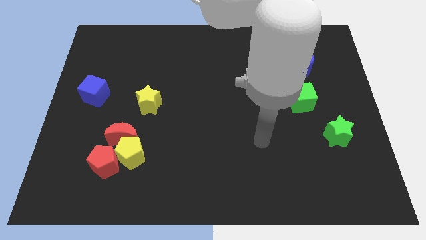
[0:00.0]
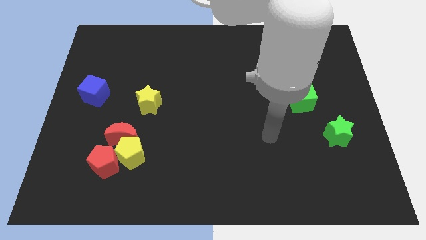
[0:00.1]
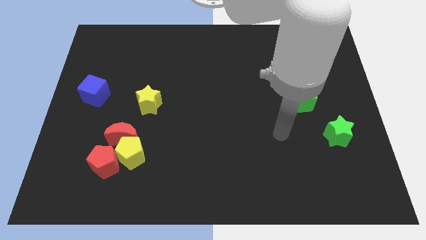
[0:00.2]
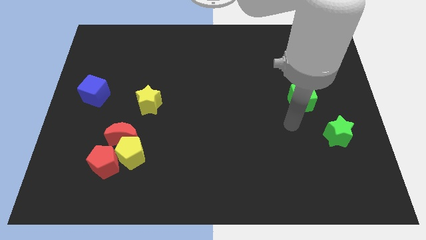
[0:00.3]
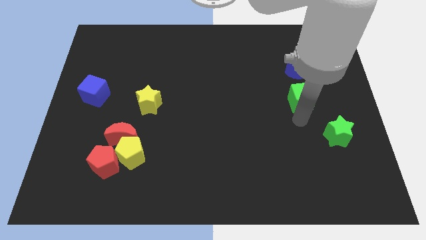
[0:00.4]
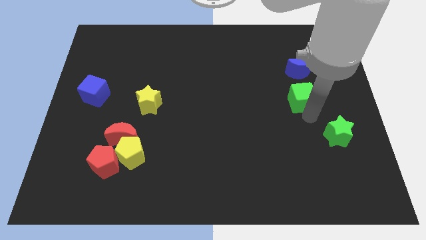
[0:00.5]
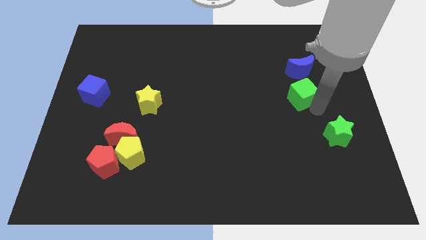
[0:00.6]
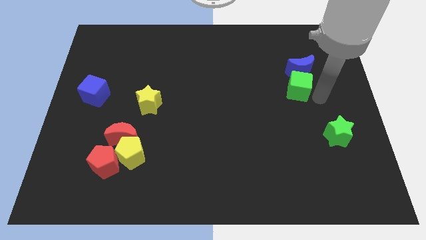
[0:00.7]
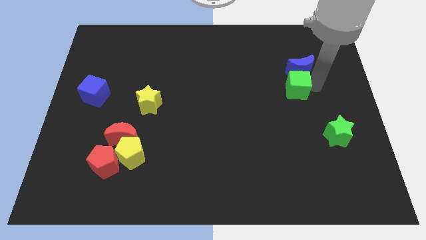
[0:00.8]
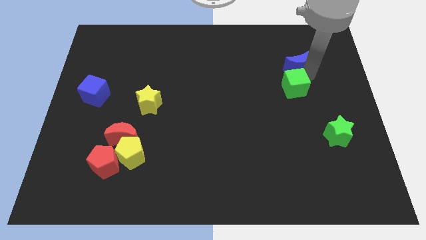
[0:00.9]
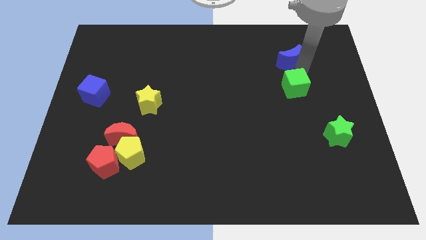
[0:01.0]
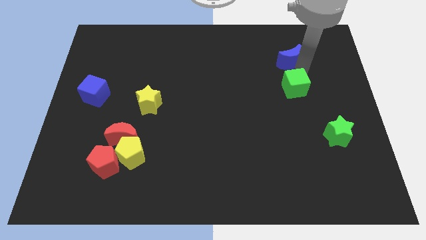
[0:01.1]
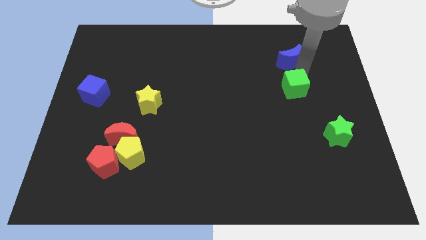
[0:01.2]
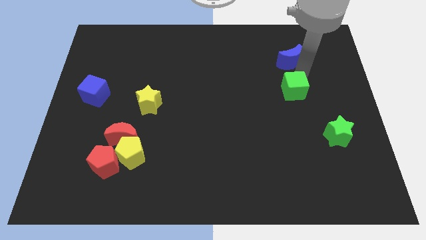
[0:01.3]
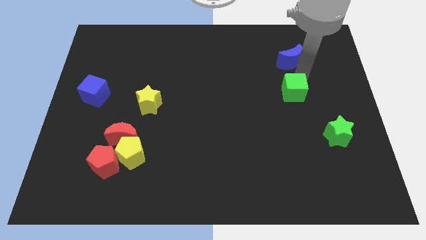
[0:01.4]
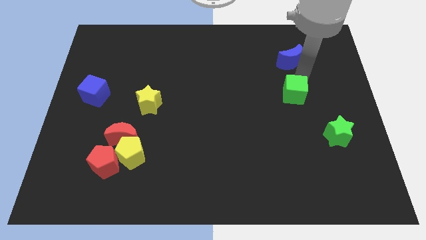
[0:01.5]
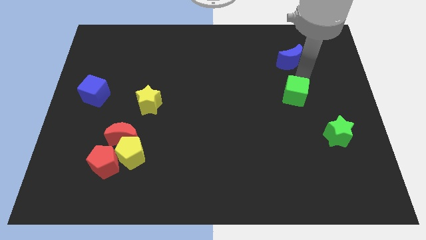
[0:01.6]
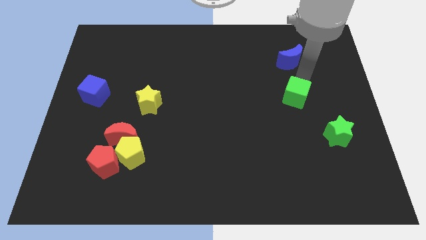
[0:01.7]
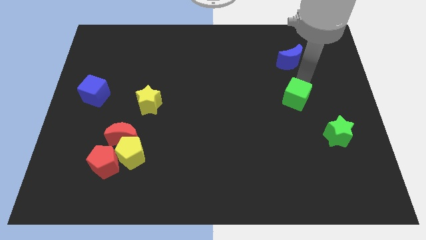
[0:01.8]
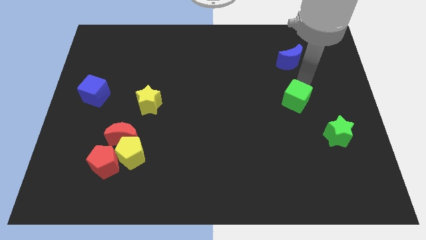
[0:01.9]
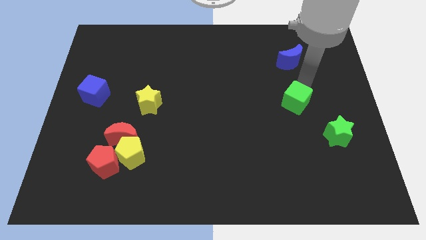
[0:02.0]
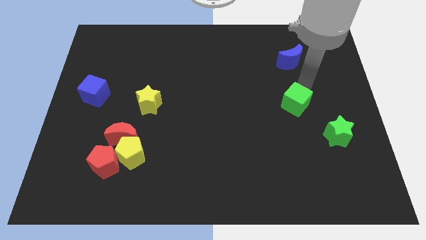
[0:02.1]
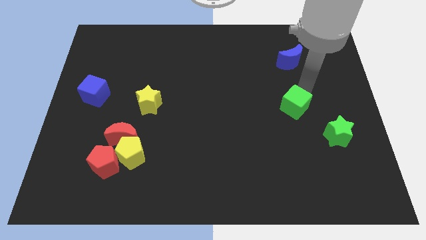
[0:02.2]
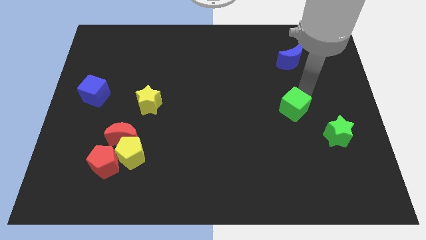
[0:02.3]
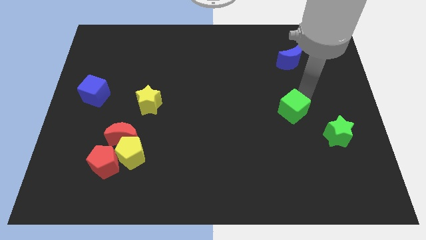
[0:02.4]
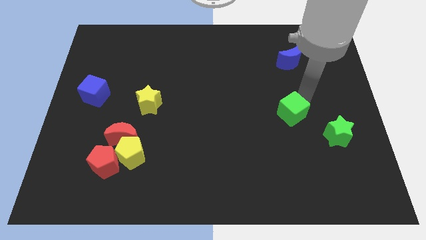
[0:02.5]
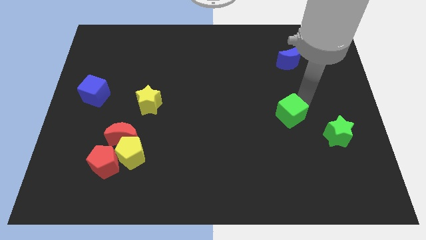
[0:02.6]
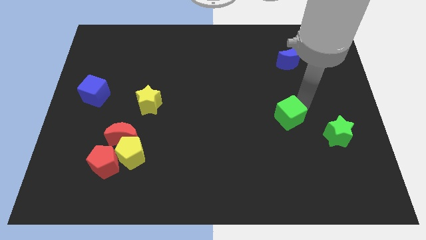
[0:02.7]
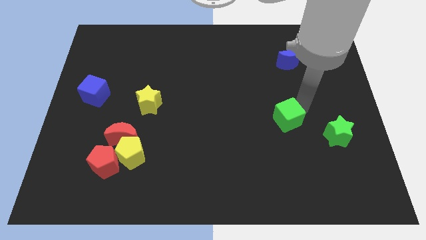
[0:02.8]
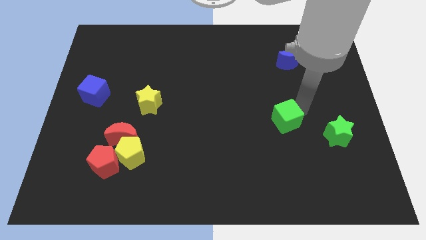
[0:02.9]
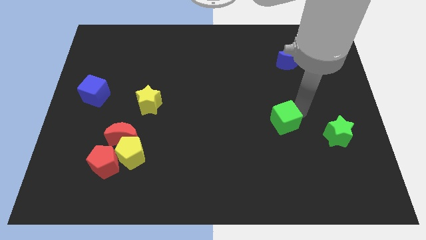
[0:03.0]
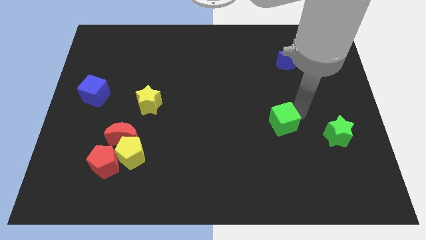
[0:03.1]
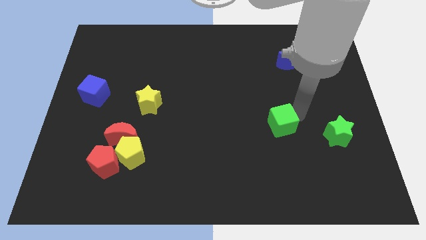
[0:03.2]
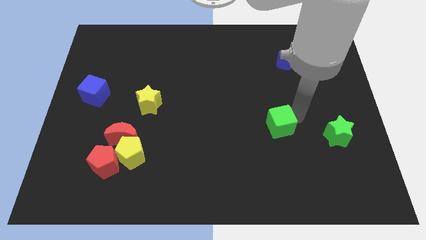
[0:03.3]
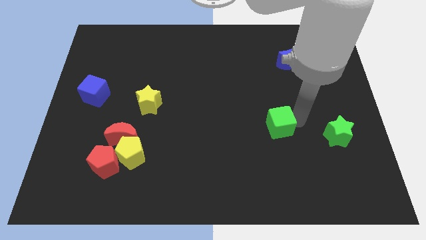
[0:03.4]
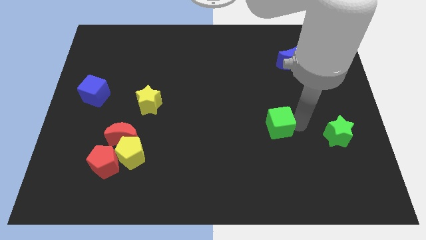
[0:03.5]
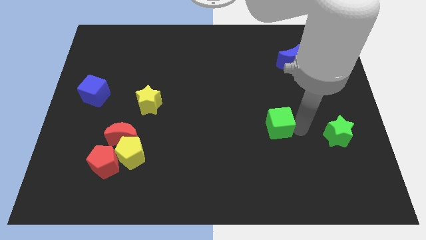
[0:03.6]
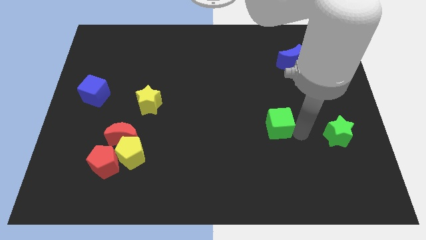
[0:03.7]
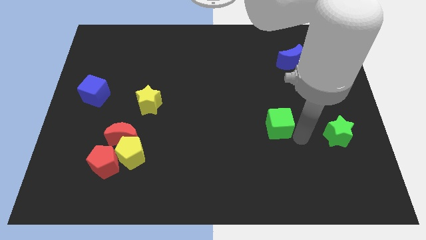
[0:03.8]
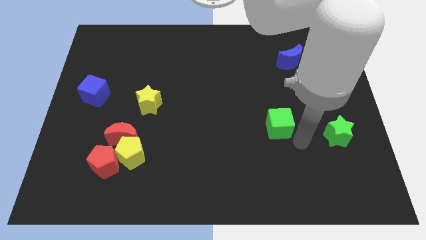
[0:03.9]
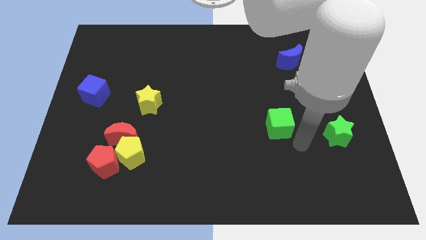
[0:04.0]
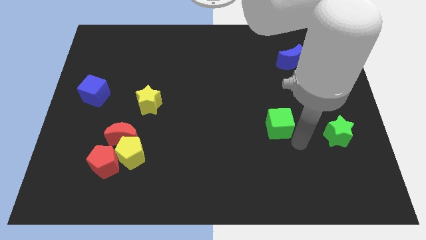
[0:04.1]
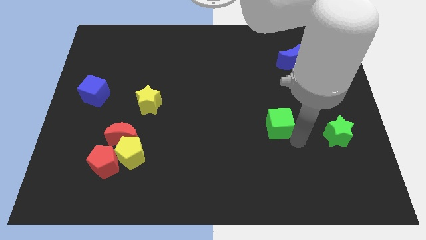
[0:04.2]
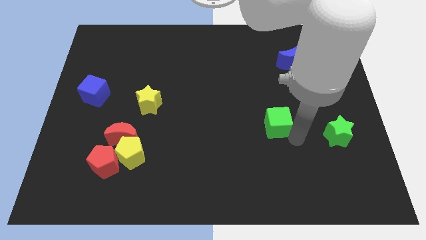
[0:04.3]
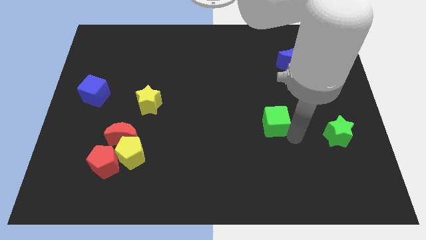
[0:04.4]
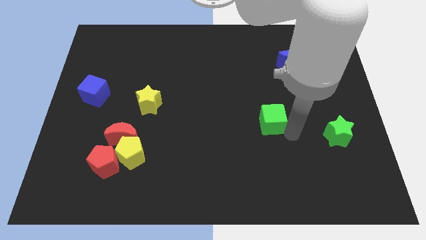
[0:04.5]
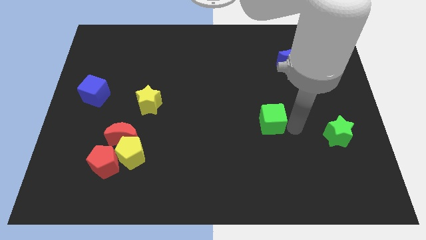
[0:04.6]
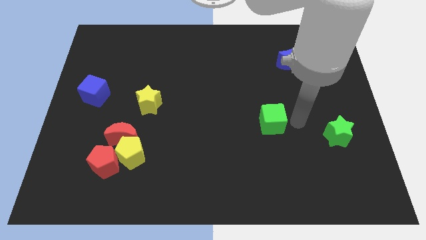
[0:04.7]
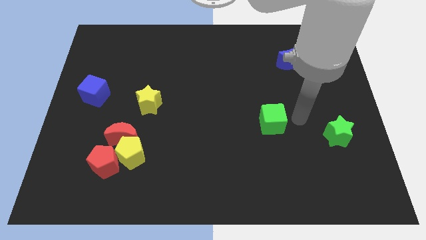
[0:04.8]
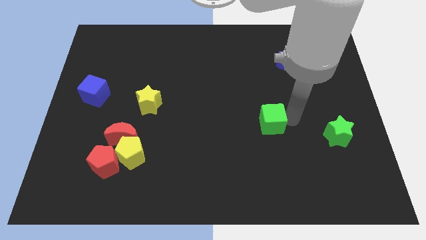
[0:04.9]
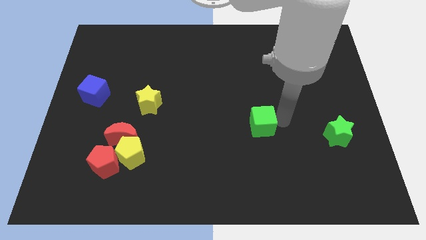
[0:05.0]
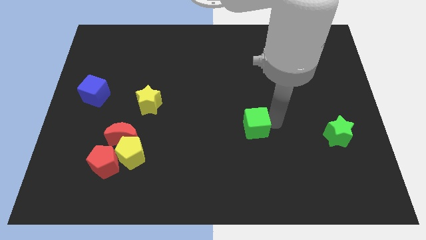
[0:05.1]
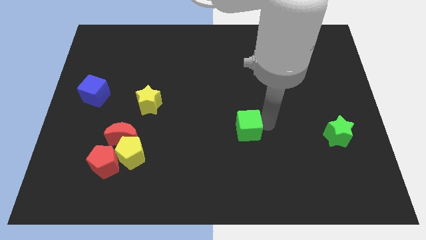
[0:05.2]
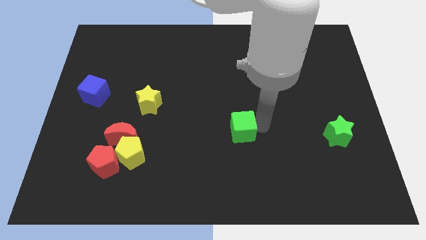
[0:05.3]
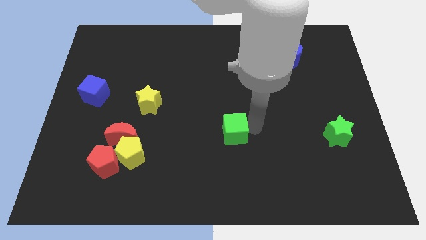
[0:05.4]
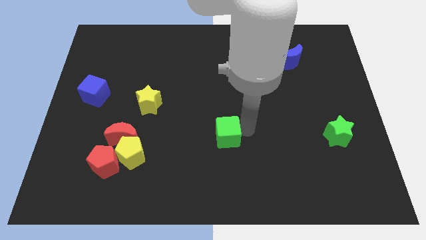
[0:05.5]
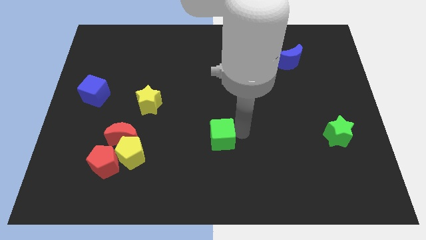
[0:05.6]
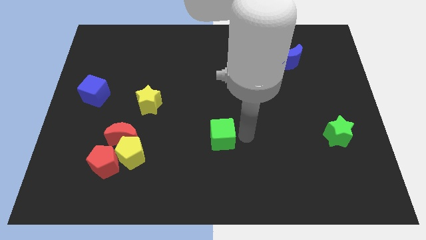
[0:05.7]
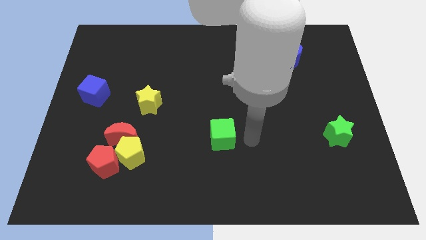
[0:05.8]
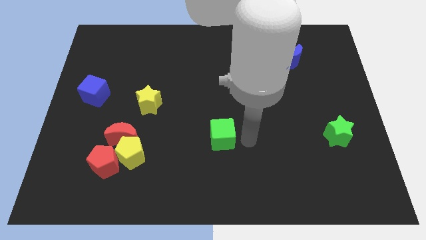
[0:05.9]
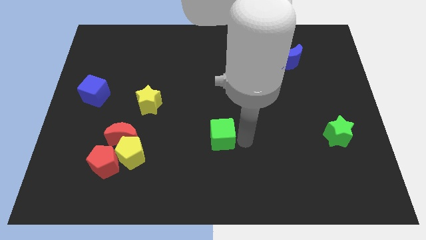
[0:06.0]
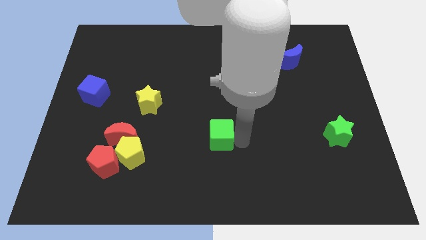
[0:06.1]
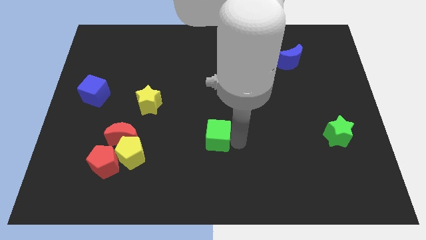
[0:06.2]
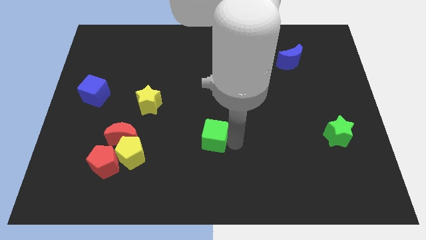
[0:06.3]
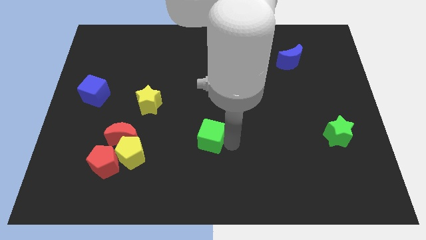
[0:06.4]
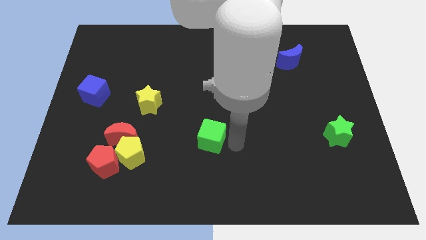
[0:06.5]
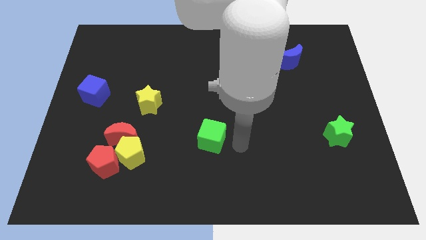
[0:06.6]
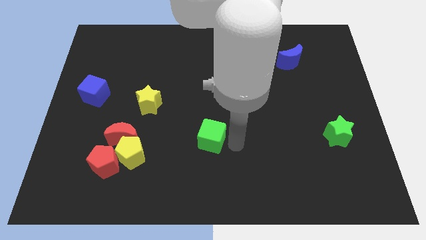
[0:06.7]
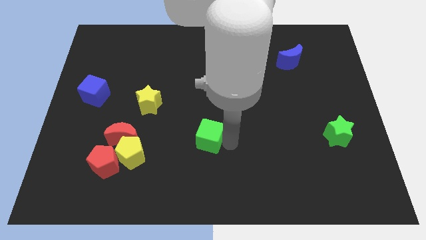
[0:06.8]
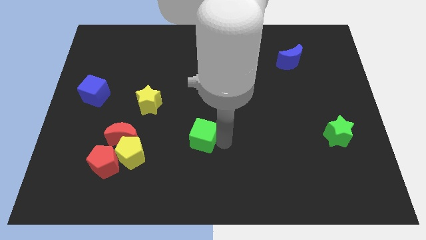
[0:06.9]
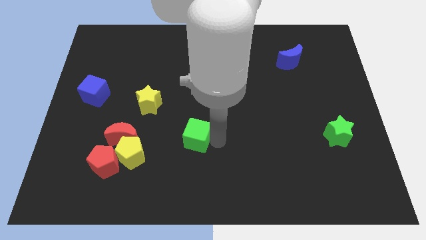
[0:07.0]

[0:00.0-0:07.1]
move the green cube right of the red moon

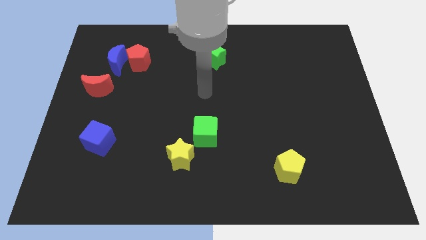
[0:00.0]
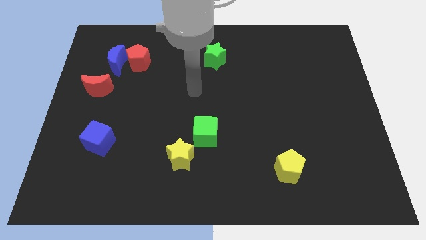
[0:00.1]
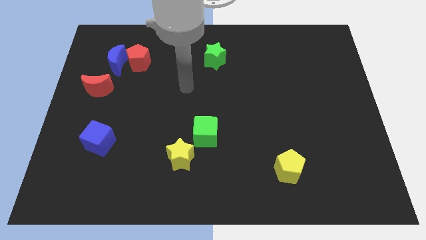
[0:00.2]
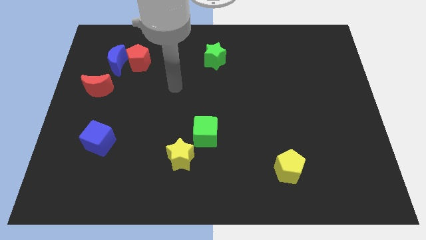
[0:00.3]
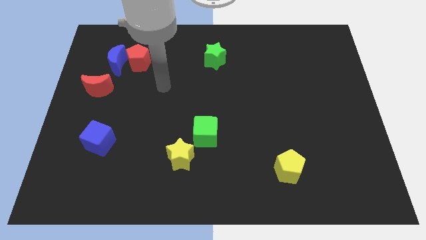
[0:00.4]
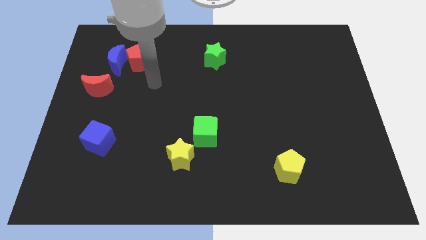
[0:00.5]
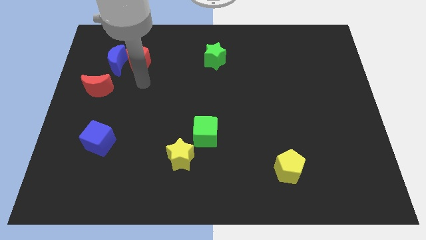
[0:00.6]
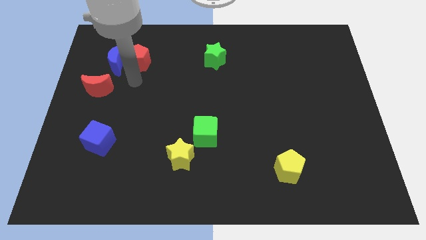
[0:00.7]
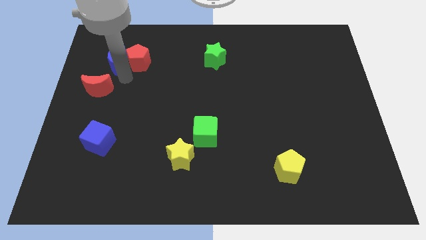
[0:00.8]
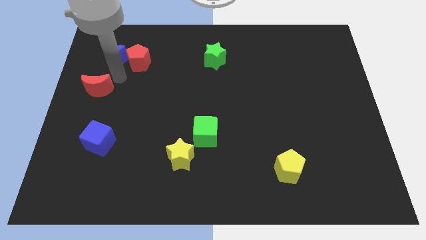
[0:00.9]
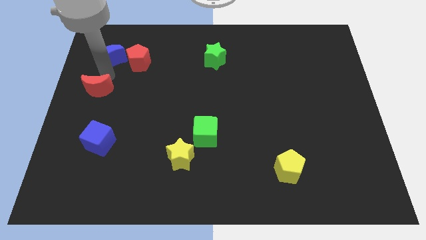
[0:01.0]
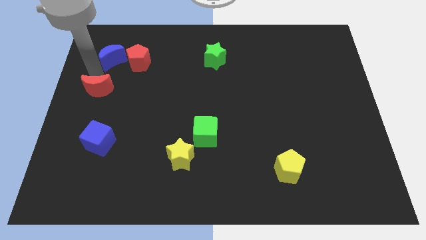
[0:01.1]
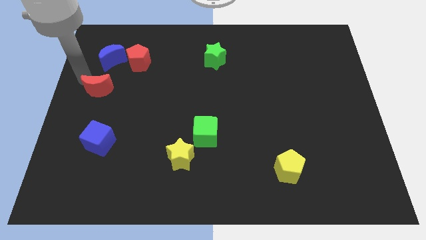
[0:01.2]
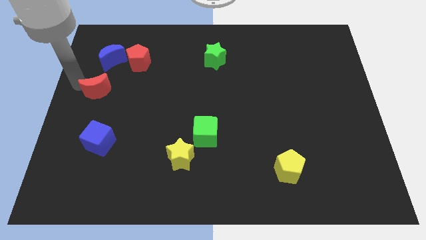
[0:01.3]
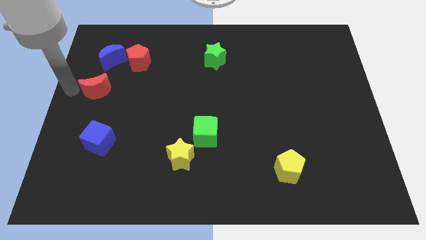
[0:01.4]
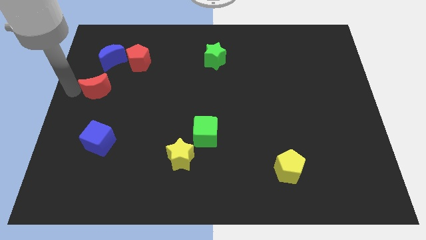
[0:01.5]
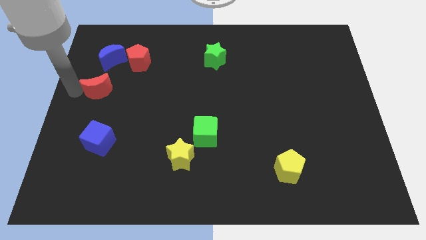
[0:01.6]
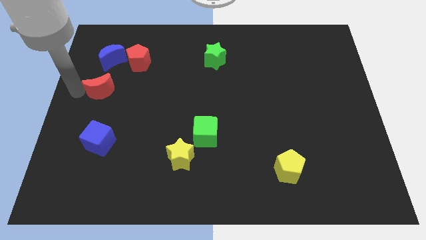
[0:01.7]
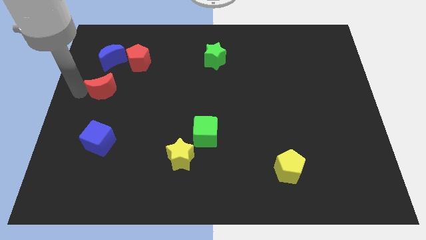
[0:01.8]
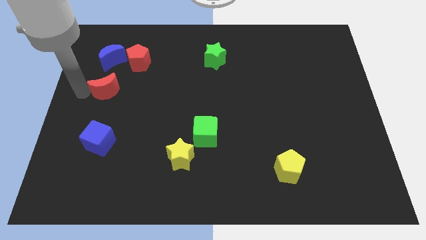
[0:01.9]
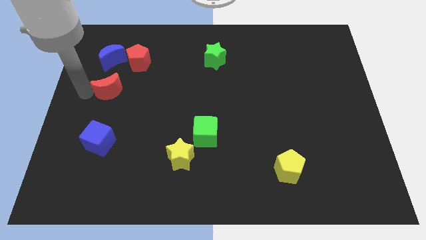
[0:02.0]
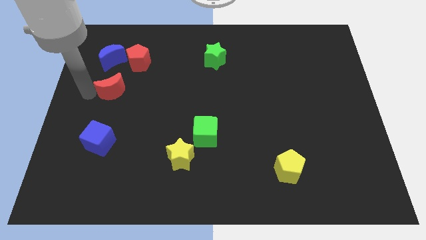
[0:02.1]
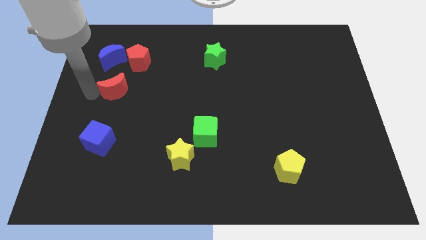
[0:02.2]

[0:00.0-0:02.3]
slide the red moon to the bottom of the red pentagon
